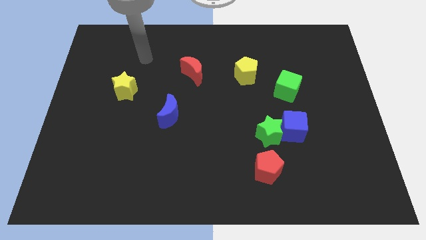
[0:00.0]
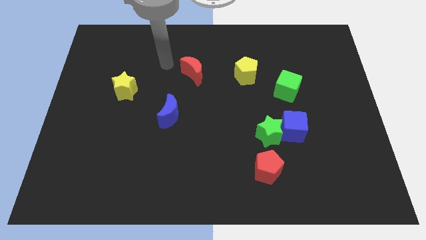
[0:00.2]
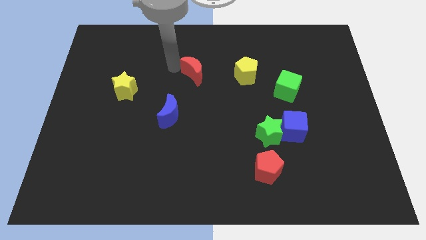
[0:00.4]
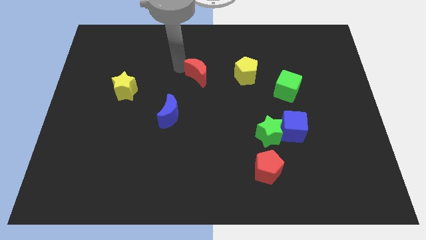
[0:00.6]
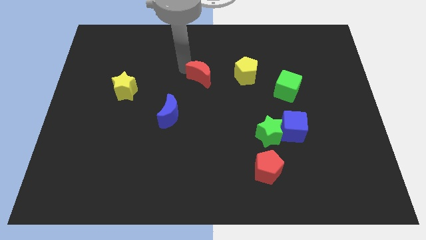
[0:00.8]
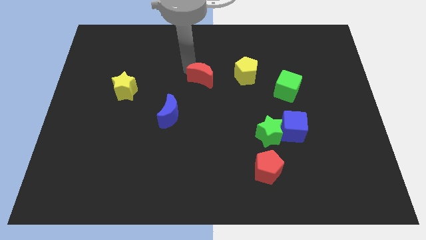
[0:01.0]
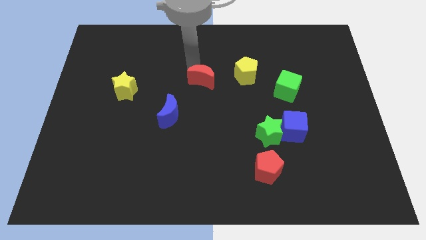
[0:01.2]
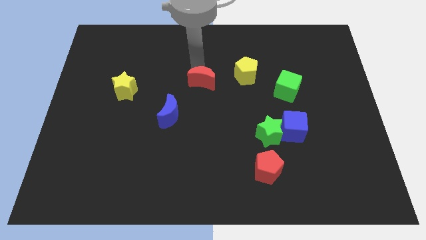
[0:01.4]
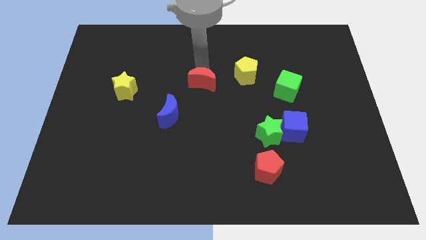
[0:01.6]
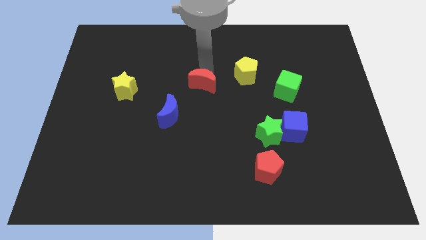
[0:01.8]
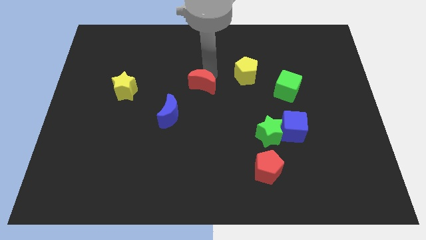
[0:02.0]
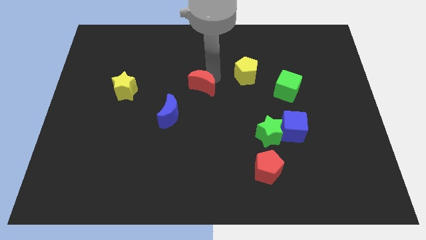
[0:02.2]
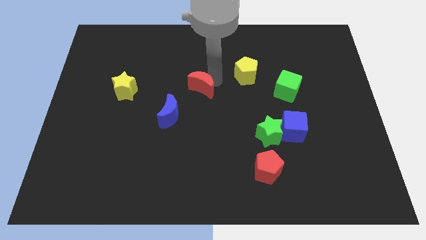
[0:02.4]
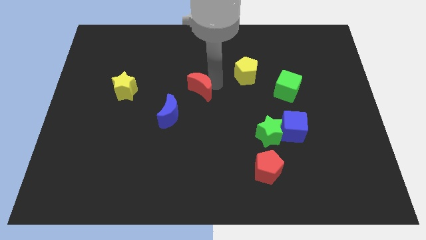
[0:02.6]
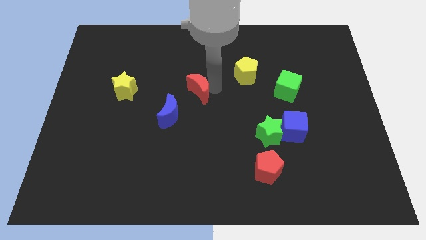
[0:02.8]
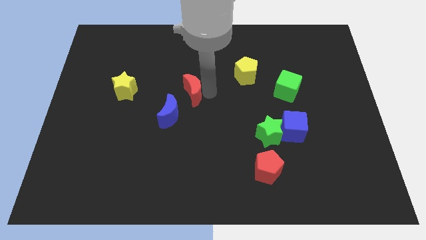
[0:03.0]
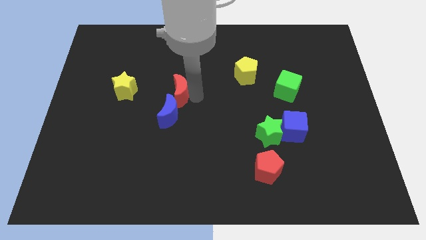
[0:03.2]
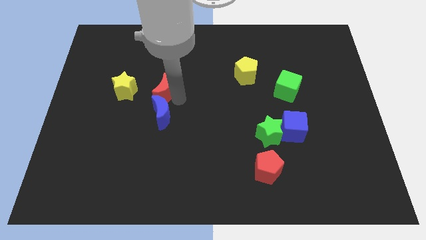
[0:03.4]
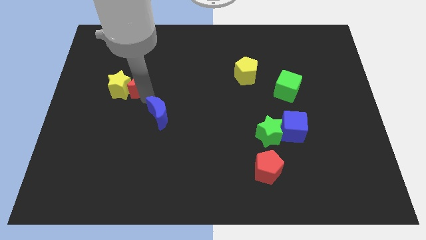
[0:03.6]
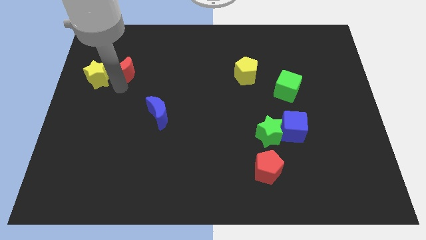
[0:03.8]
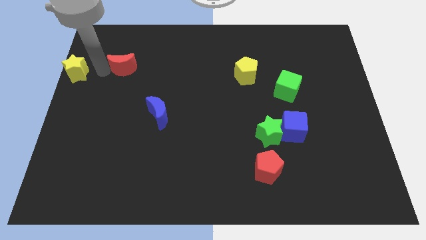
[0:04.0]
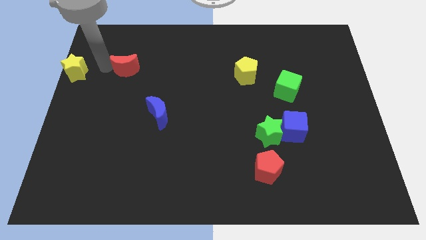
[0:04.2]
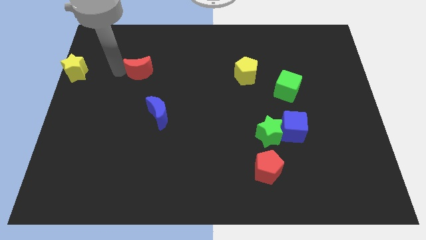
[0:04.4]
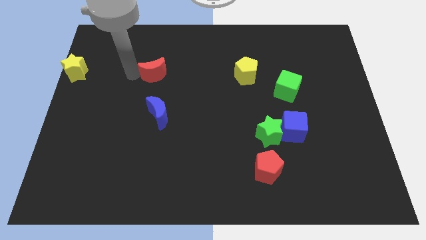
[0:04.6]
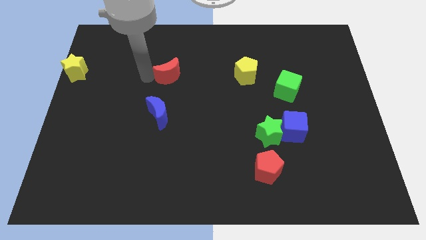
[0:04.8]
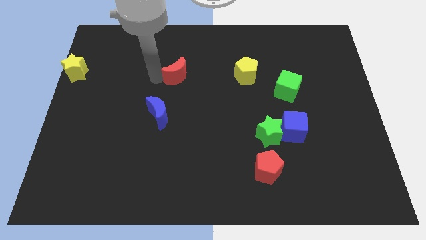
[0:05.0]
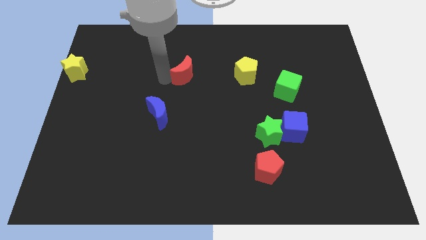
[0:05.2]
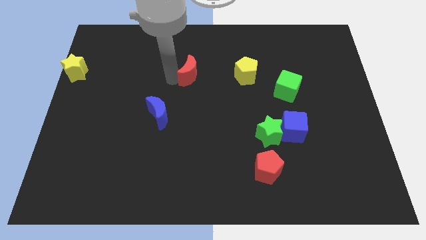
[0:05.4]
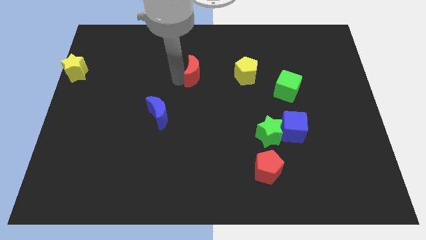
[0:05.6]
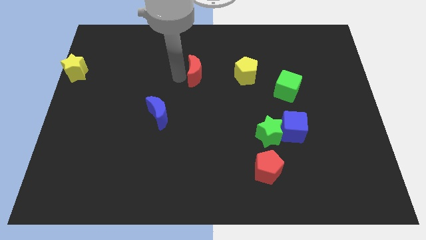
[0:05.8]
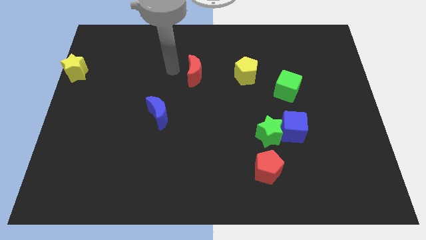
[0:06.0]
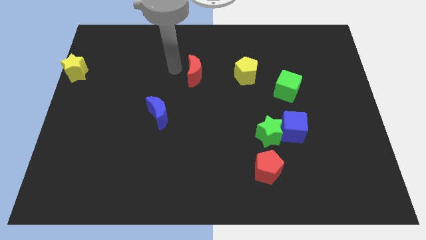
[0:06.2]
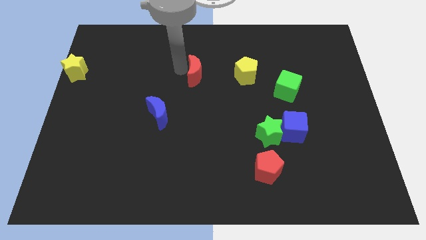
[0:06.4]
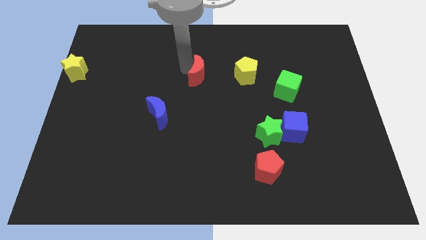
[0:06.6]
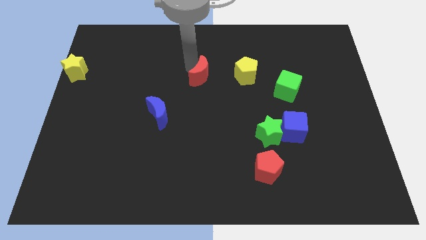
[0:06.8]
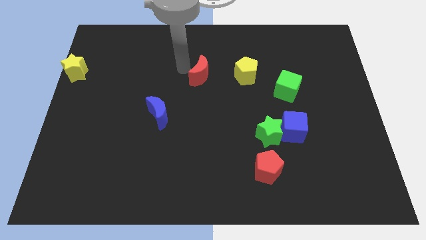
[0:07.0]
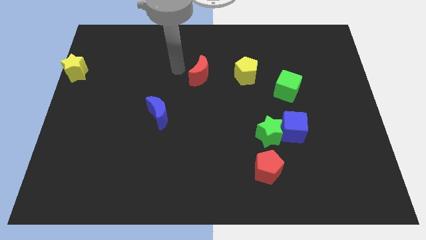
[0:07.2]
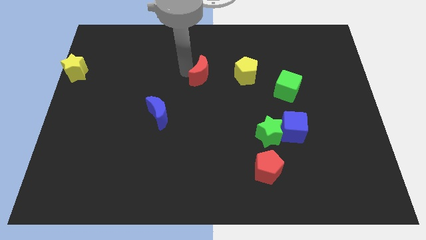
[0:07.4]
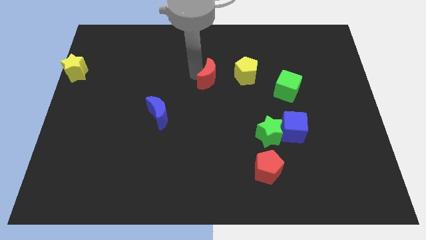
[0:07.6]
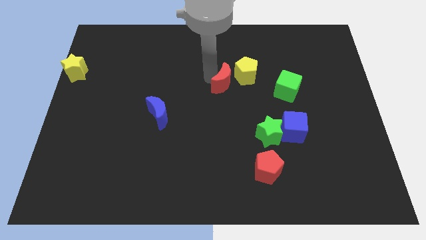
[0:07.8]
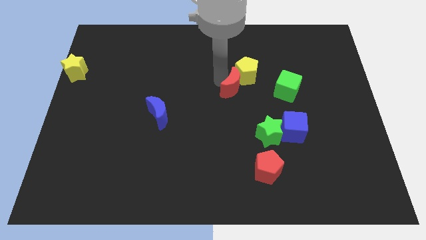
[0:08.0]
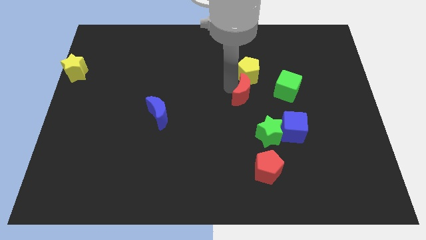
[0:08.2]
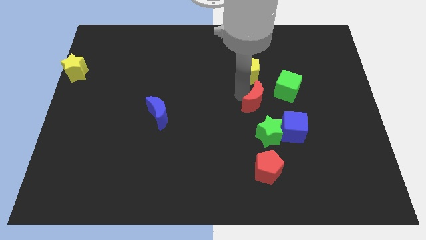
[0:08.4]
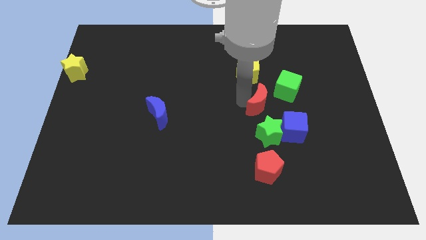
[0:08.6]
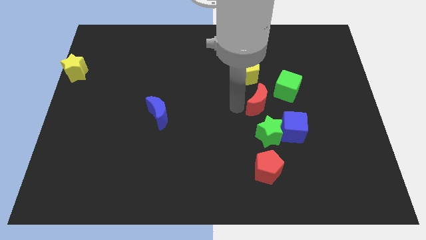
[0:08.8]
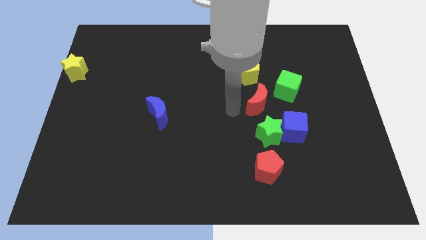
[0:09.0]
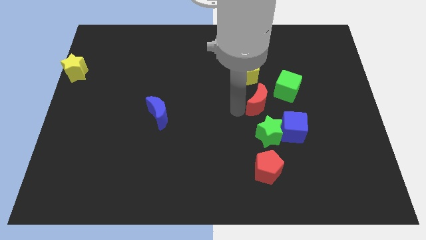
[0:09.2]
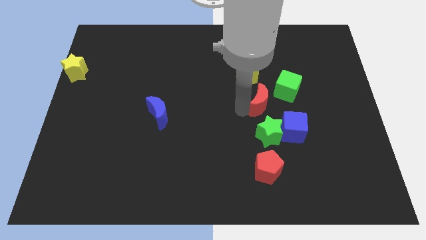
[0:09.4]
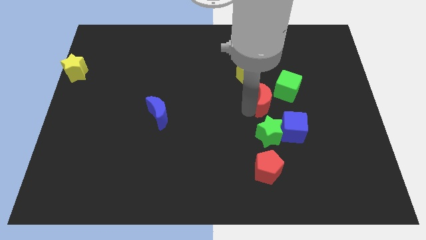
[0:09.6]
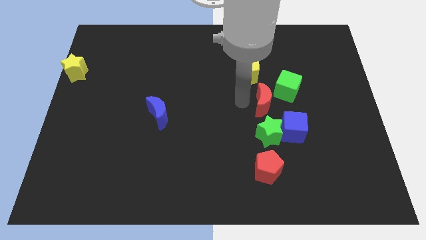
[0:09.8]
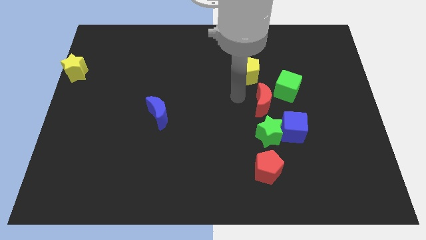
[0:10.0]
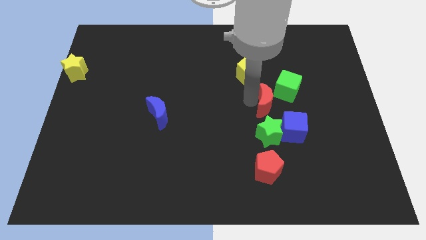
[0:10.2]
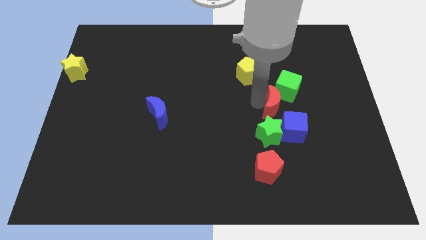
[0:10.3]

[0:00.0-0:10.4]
push the red moon down and to the right diagonally

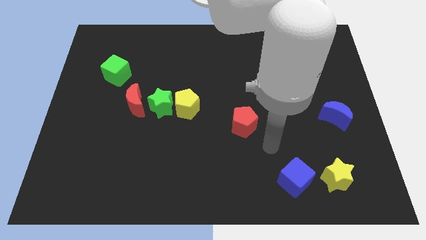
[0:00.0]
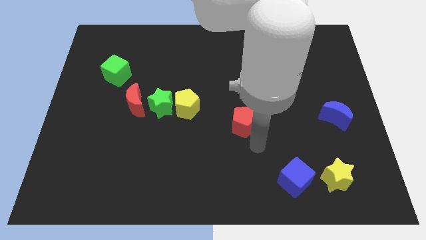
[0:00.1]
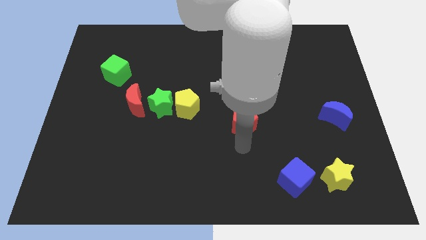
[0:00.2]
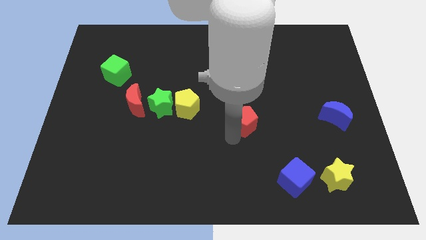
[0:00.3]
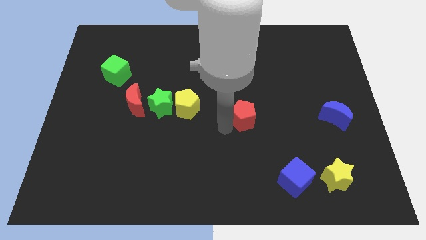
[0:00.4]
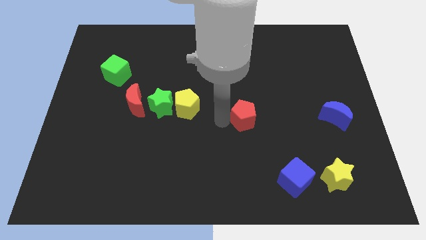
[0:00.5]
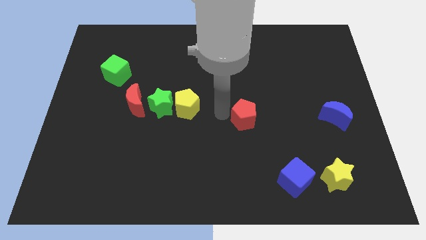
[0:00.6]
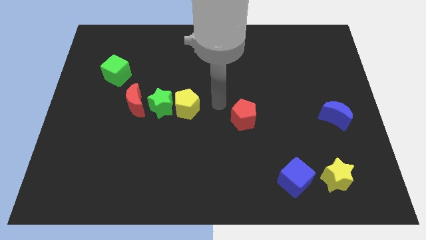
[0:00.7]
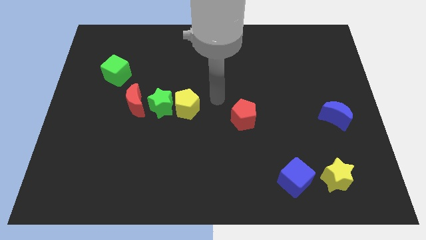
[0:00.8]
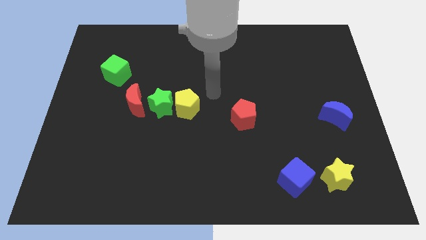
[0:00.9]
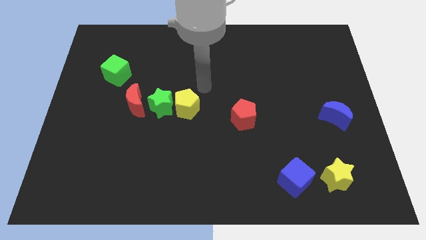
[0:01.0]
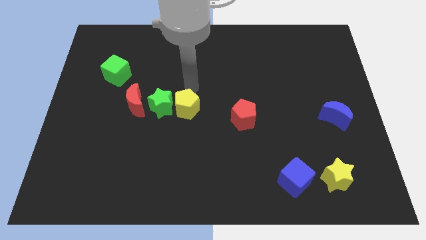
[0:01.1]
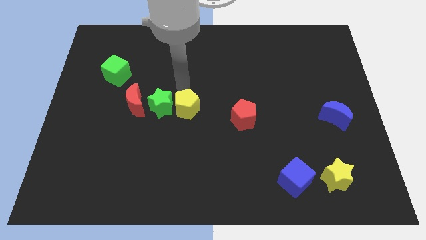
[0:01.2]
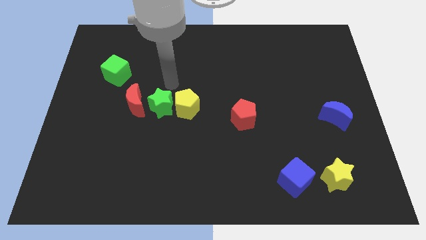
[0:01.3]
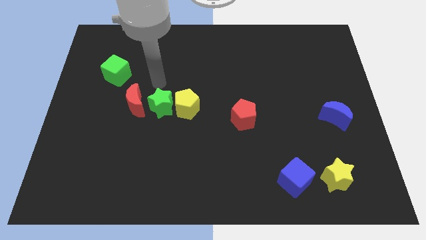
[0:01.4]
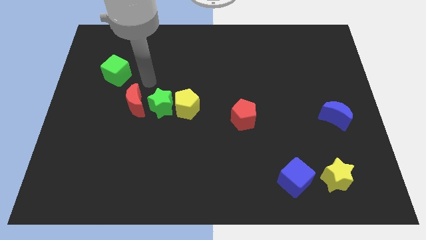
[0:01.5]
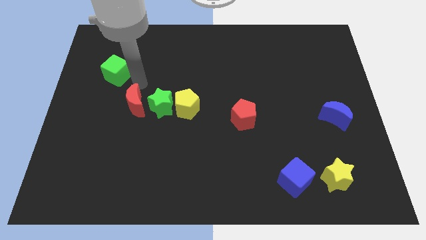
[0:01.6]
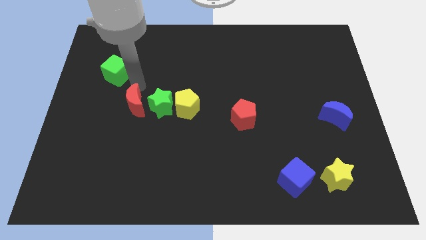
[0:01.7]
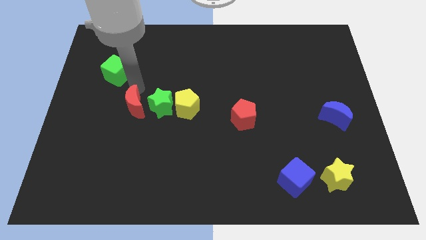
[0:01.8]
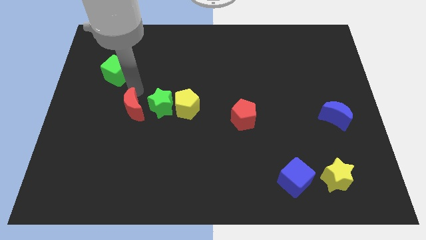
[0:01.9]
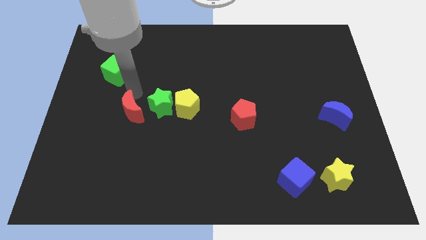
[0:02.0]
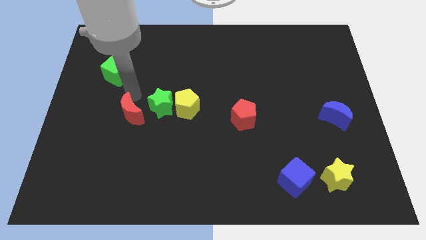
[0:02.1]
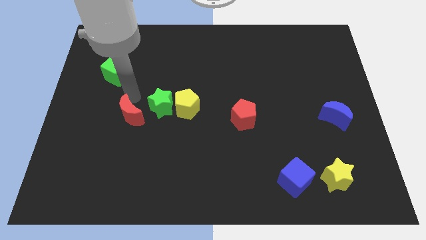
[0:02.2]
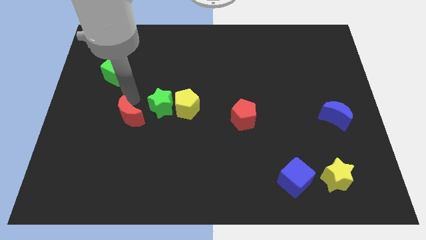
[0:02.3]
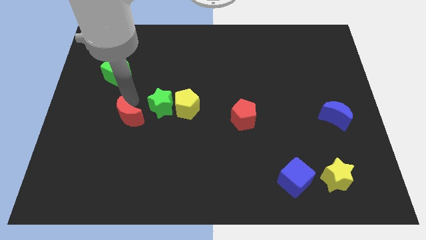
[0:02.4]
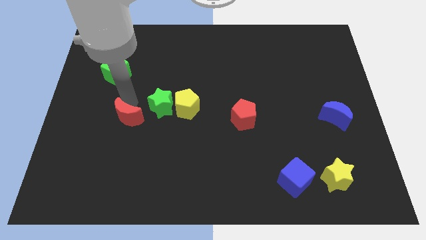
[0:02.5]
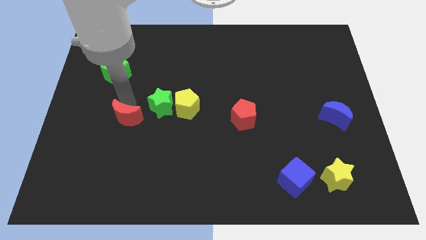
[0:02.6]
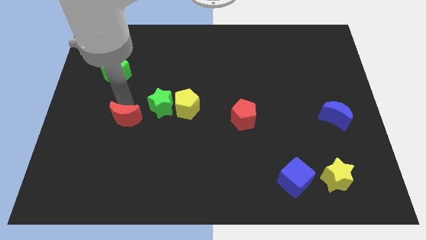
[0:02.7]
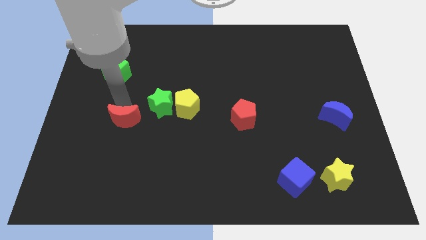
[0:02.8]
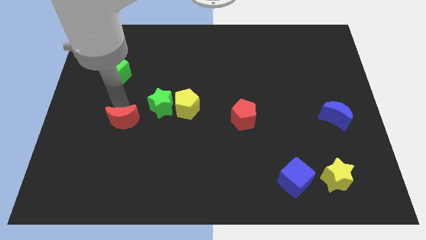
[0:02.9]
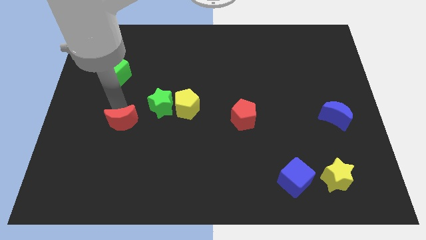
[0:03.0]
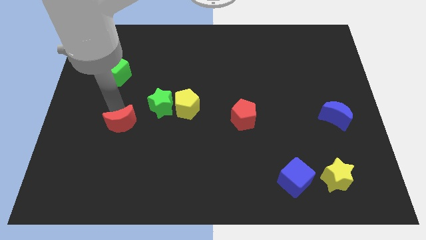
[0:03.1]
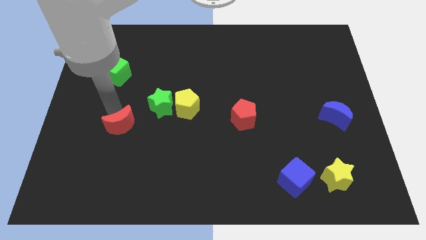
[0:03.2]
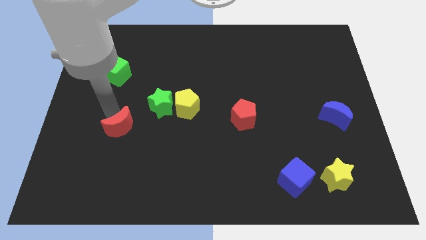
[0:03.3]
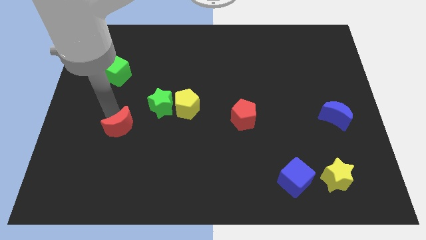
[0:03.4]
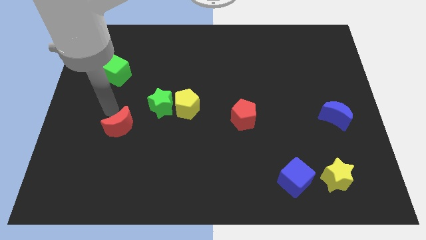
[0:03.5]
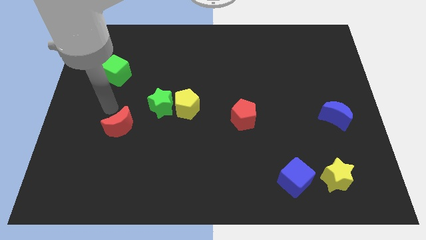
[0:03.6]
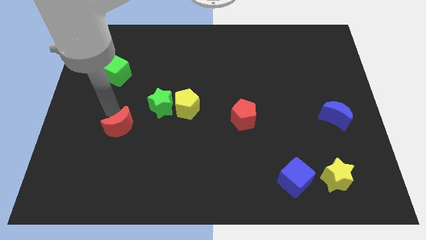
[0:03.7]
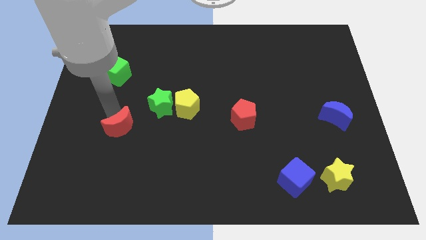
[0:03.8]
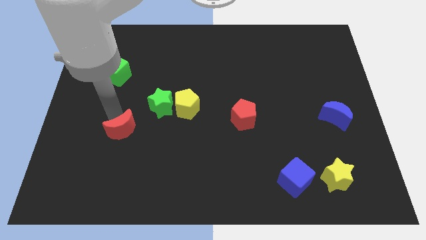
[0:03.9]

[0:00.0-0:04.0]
move the red moon a bit down
